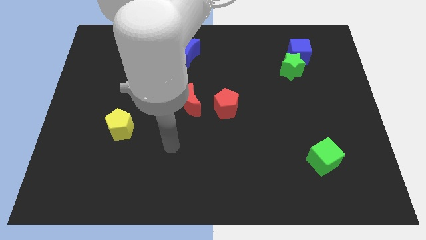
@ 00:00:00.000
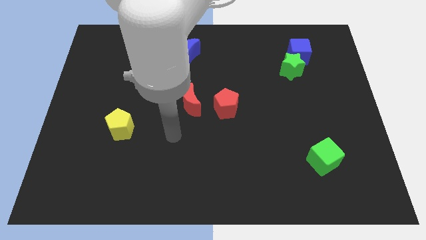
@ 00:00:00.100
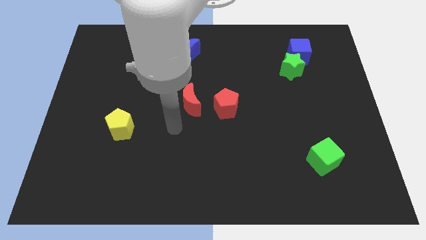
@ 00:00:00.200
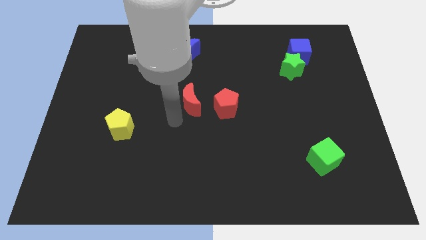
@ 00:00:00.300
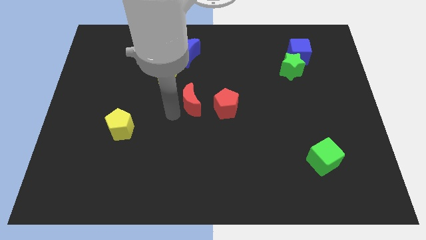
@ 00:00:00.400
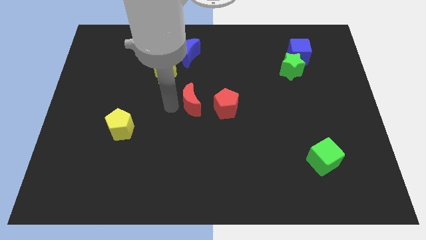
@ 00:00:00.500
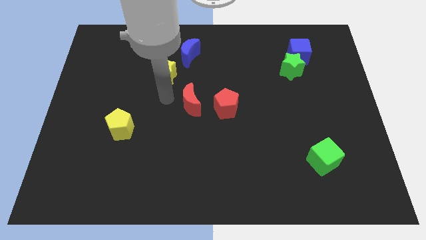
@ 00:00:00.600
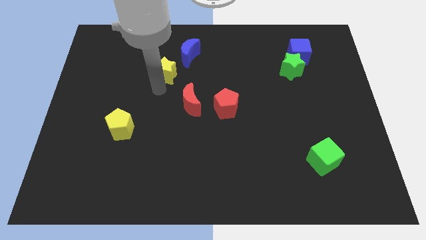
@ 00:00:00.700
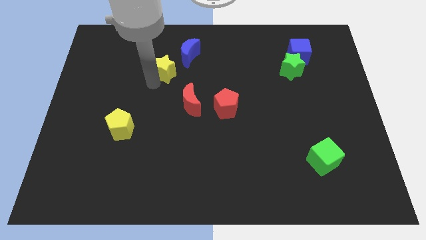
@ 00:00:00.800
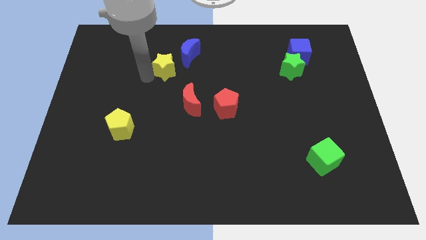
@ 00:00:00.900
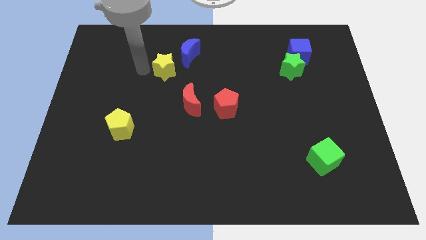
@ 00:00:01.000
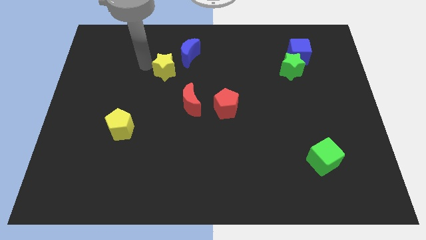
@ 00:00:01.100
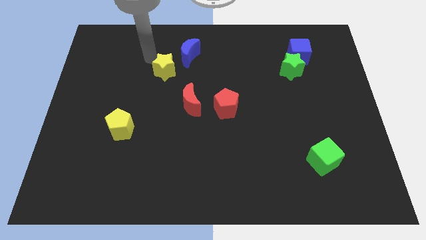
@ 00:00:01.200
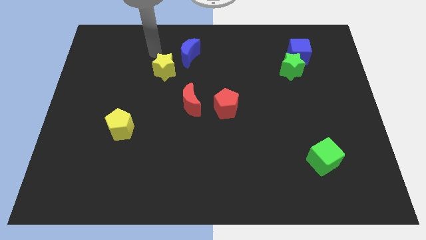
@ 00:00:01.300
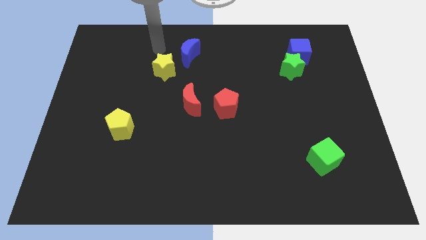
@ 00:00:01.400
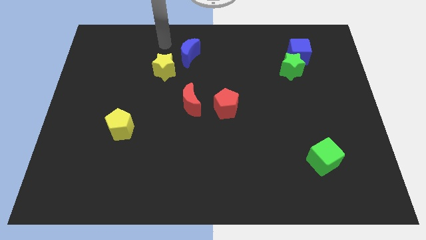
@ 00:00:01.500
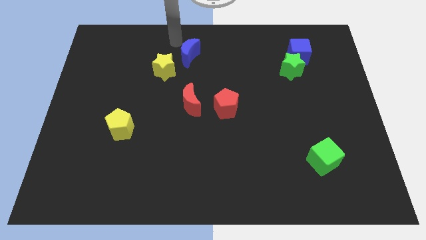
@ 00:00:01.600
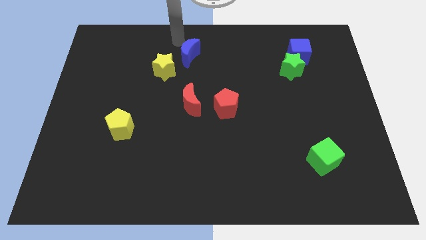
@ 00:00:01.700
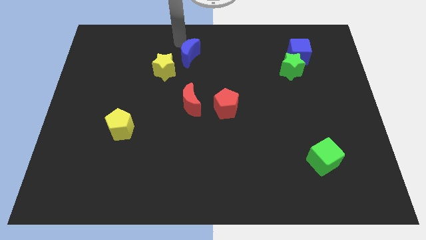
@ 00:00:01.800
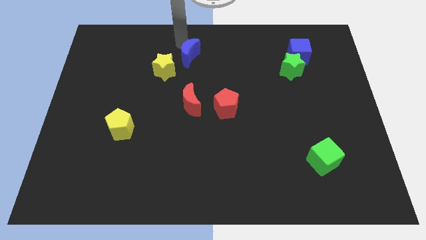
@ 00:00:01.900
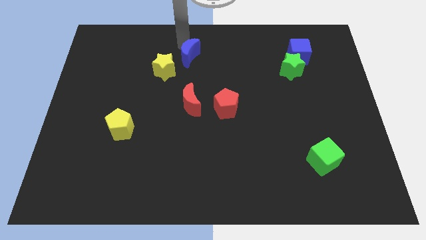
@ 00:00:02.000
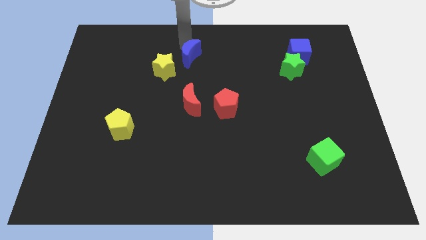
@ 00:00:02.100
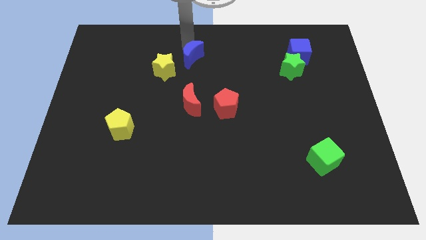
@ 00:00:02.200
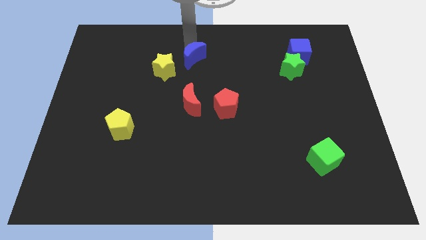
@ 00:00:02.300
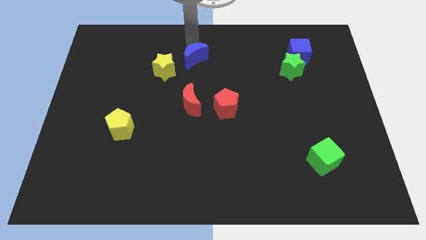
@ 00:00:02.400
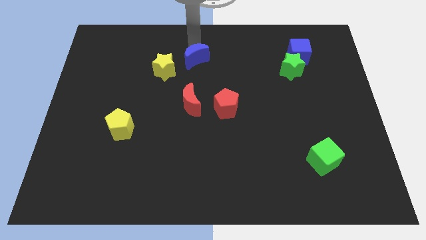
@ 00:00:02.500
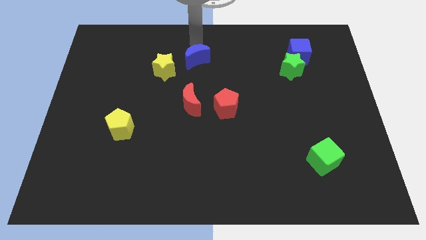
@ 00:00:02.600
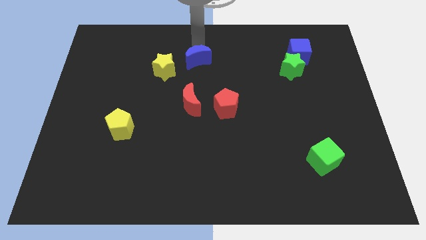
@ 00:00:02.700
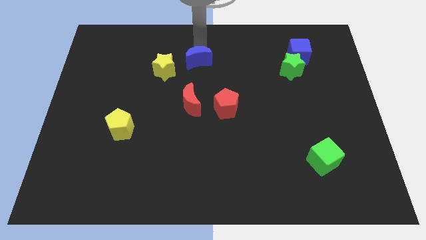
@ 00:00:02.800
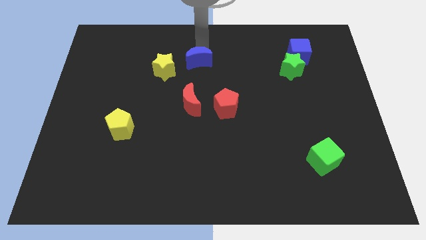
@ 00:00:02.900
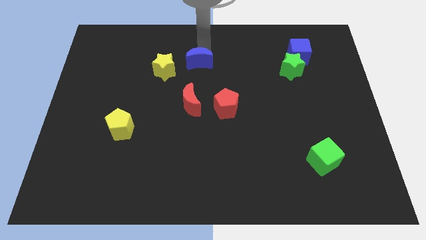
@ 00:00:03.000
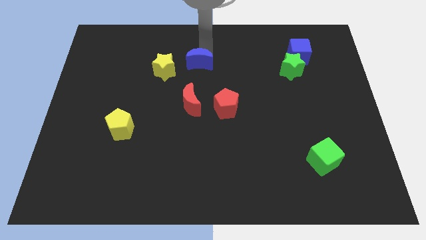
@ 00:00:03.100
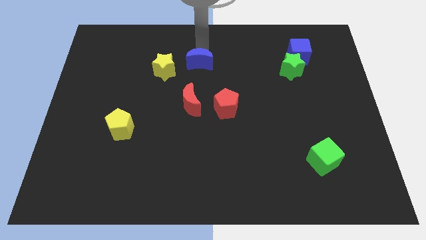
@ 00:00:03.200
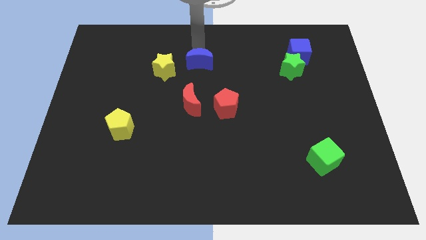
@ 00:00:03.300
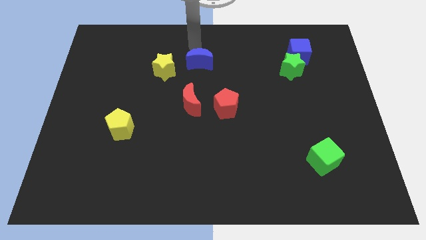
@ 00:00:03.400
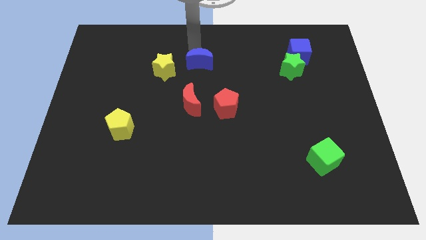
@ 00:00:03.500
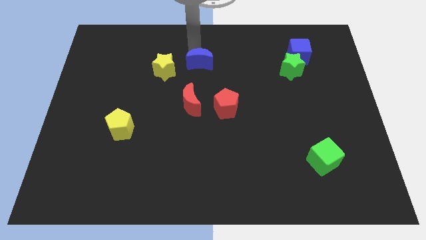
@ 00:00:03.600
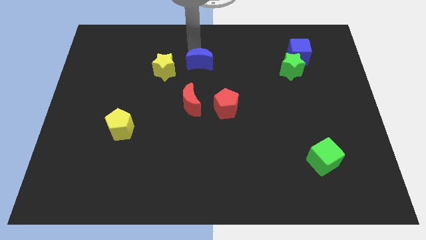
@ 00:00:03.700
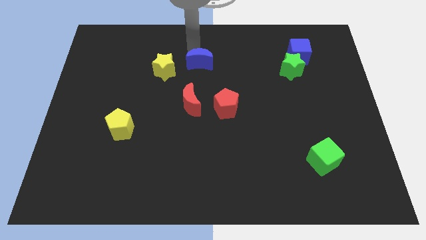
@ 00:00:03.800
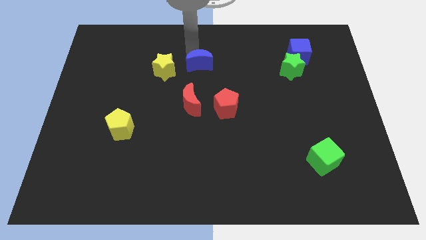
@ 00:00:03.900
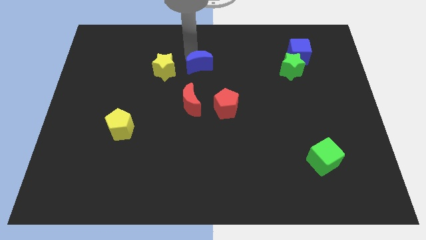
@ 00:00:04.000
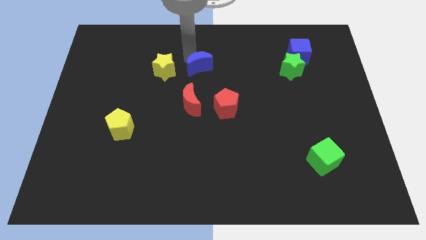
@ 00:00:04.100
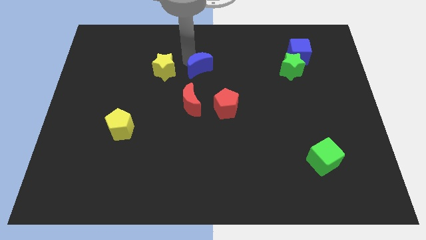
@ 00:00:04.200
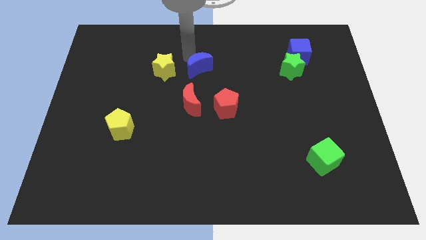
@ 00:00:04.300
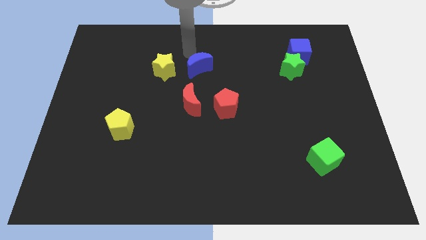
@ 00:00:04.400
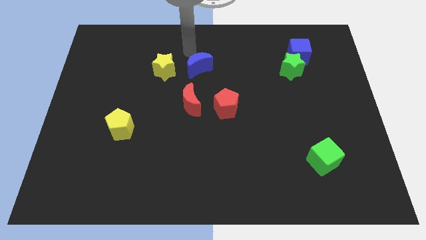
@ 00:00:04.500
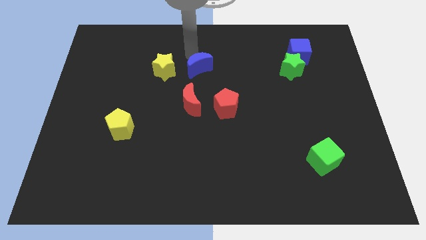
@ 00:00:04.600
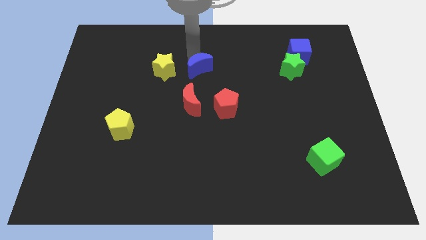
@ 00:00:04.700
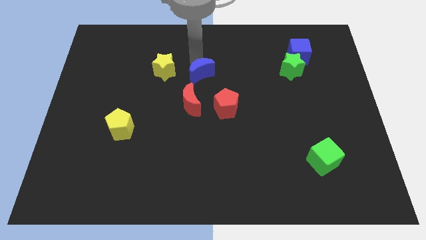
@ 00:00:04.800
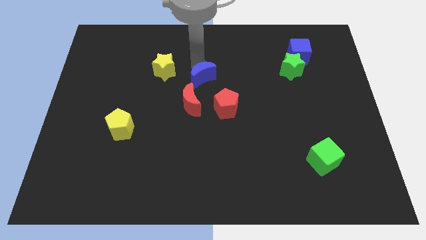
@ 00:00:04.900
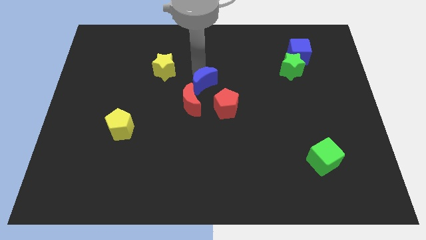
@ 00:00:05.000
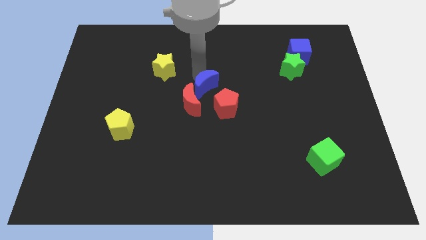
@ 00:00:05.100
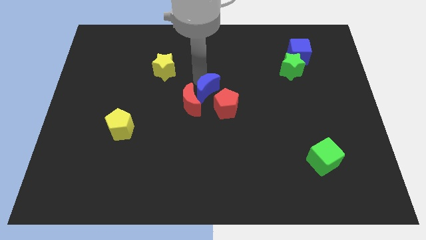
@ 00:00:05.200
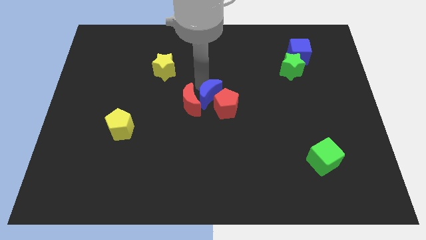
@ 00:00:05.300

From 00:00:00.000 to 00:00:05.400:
slide the blue moon close to the red pentagon

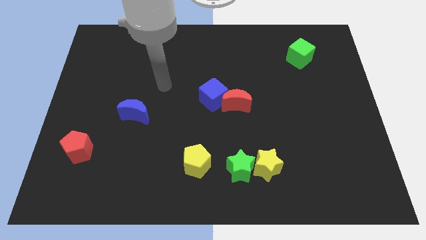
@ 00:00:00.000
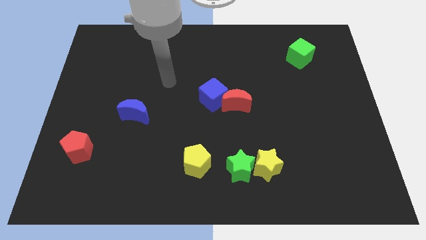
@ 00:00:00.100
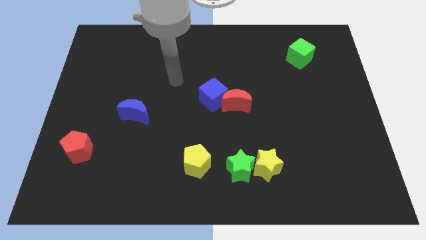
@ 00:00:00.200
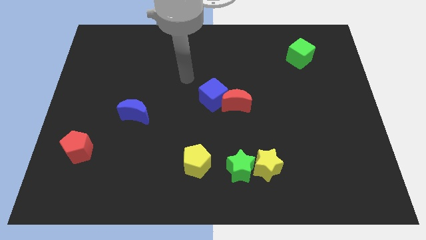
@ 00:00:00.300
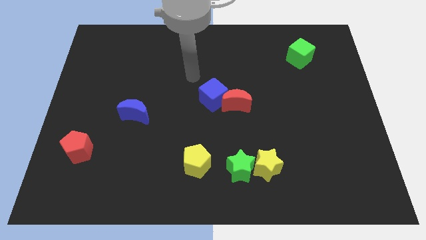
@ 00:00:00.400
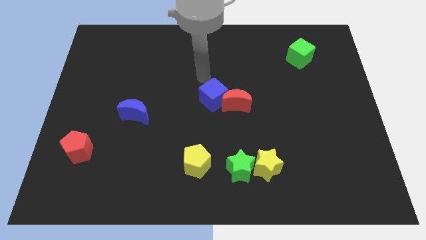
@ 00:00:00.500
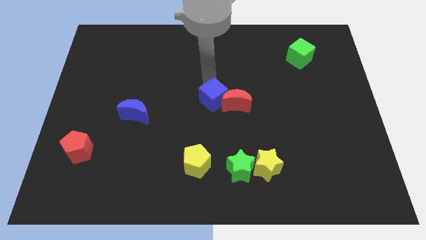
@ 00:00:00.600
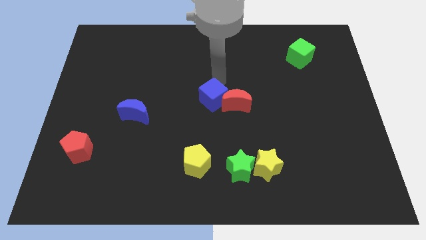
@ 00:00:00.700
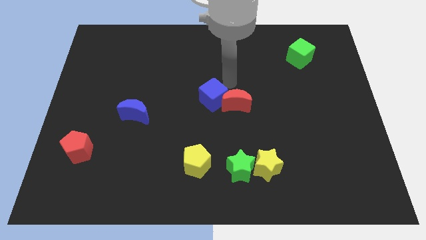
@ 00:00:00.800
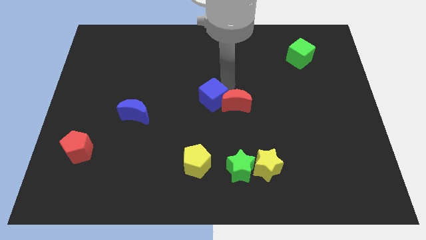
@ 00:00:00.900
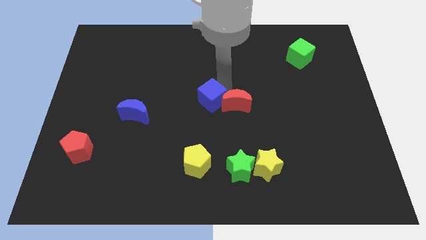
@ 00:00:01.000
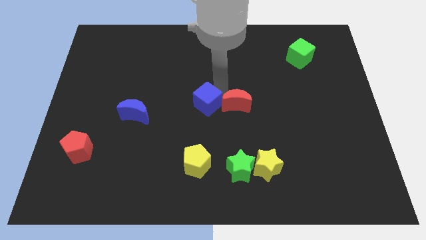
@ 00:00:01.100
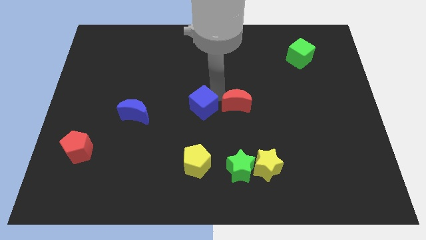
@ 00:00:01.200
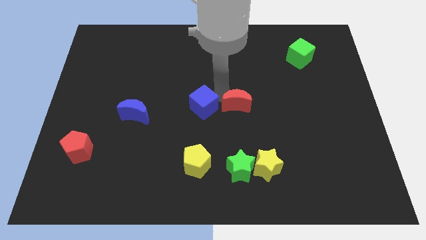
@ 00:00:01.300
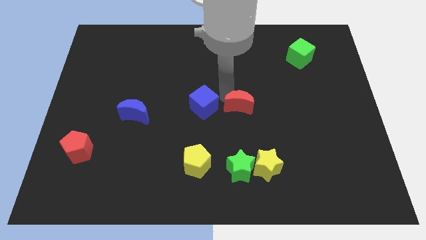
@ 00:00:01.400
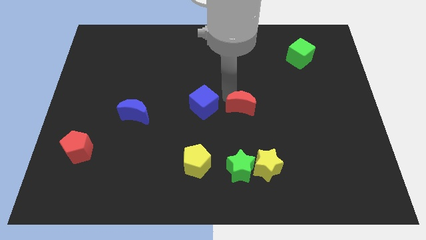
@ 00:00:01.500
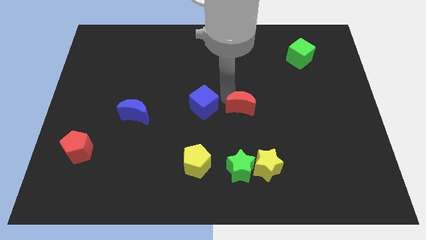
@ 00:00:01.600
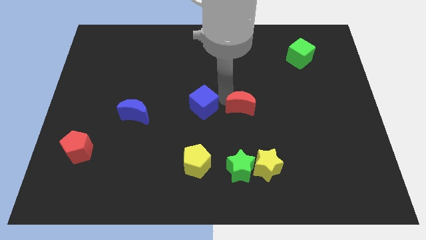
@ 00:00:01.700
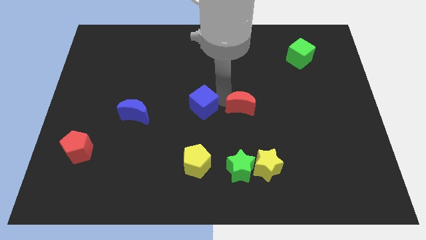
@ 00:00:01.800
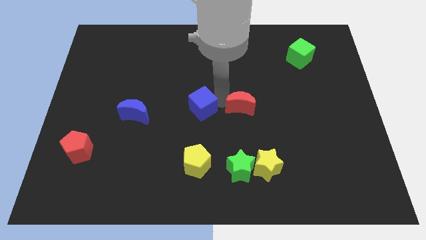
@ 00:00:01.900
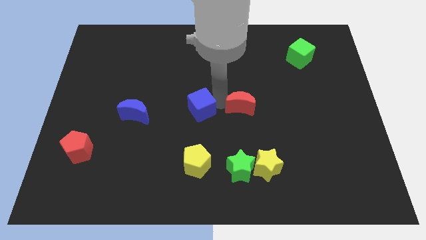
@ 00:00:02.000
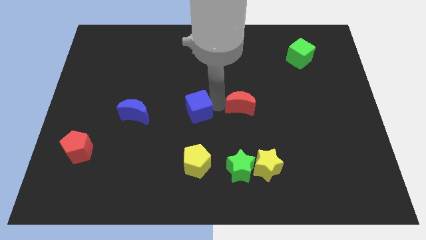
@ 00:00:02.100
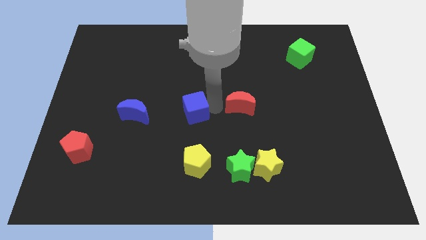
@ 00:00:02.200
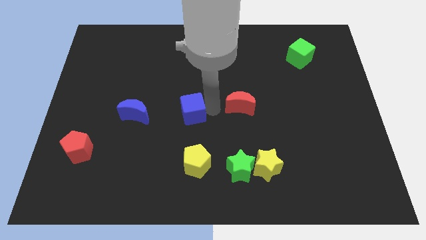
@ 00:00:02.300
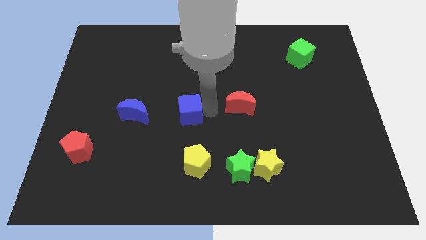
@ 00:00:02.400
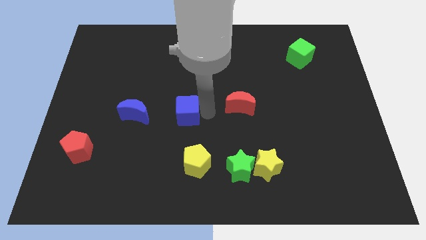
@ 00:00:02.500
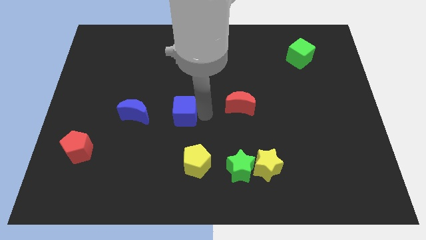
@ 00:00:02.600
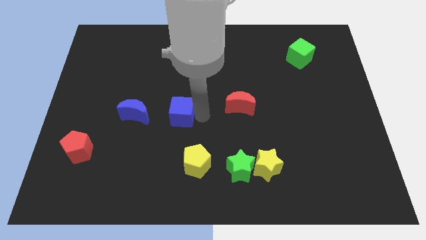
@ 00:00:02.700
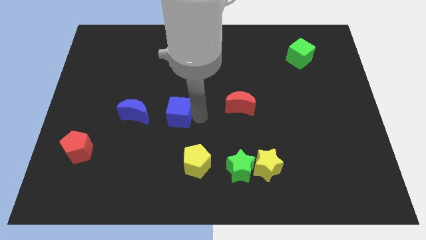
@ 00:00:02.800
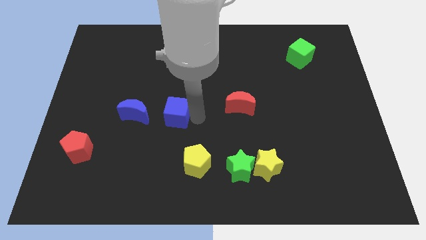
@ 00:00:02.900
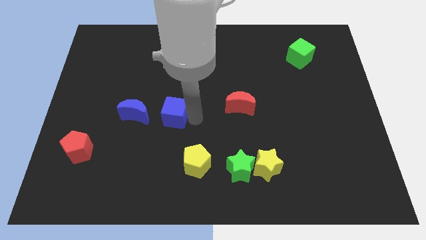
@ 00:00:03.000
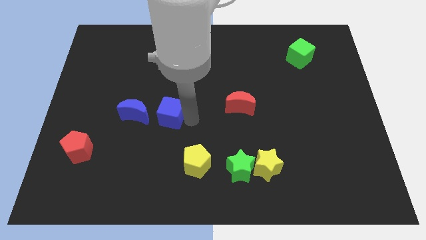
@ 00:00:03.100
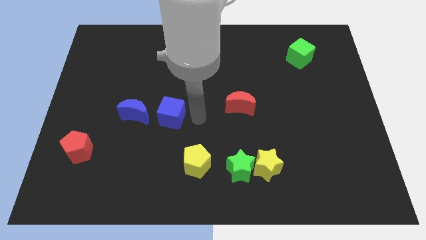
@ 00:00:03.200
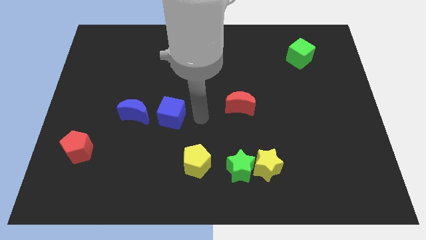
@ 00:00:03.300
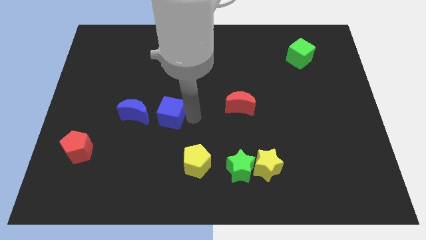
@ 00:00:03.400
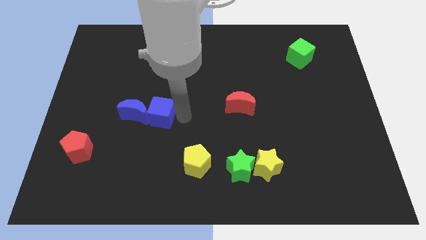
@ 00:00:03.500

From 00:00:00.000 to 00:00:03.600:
push the blue cube close to the blue moon
